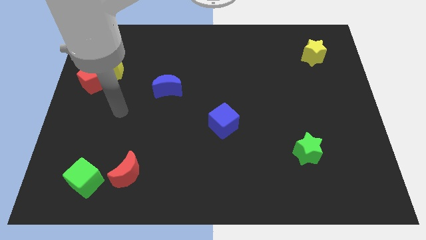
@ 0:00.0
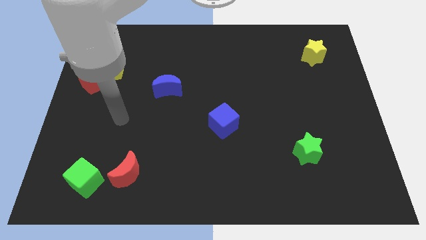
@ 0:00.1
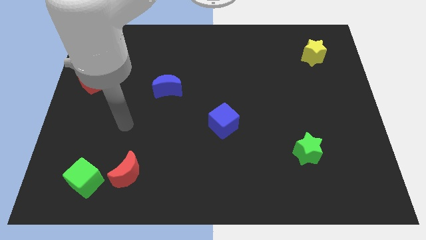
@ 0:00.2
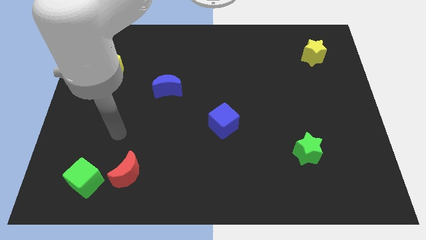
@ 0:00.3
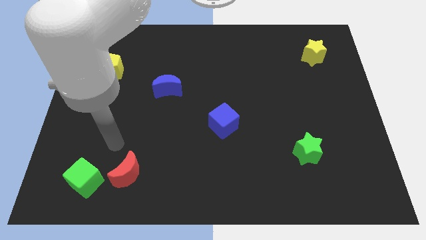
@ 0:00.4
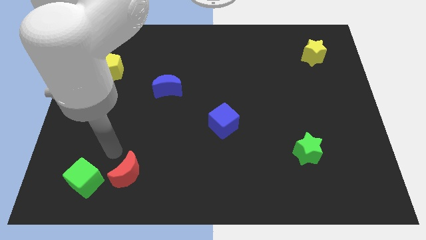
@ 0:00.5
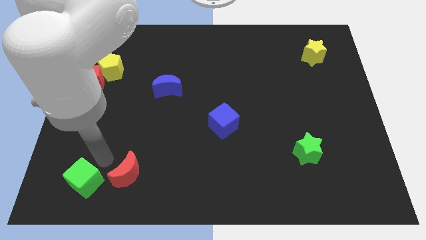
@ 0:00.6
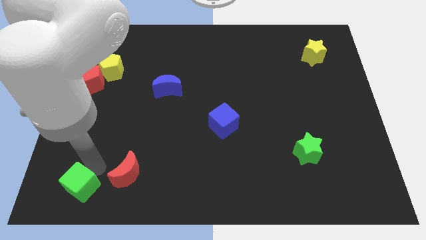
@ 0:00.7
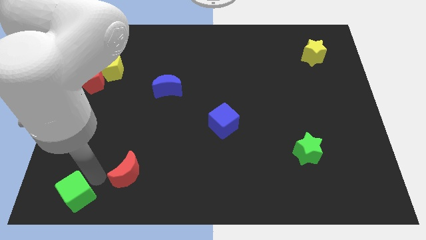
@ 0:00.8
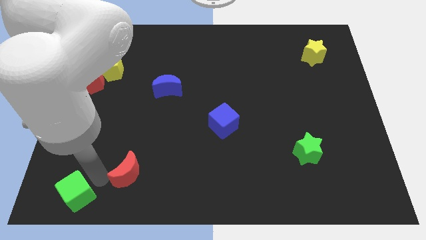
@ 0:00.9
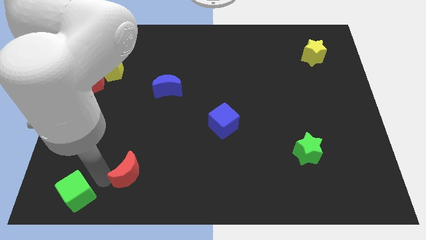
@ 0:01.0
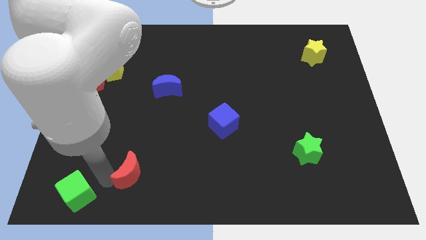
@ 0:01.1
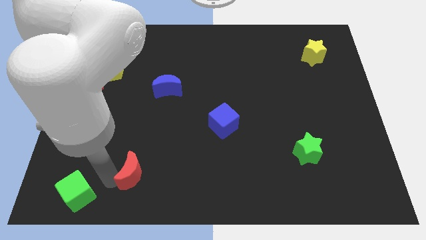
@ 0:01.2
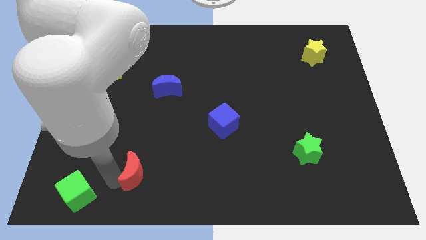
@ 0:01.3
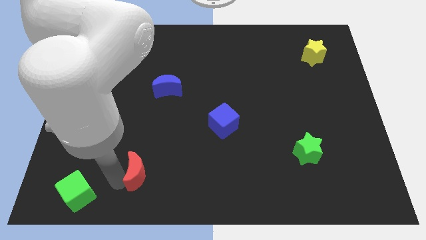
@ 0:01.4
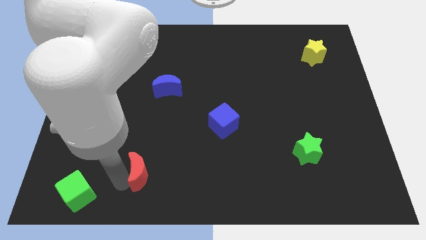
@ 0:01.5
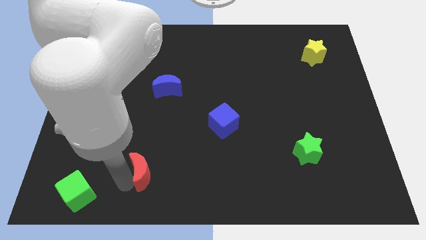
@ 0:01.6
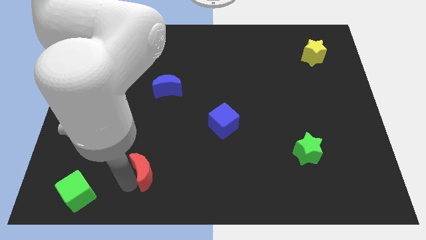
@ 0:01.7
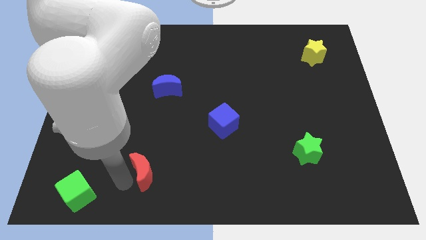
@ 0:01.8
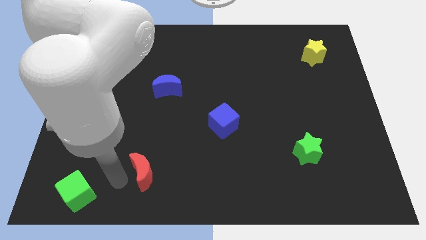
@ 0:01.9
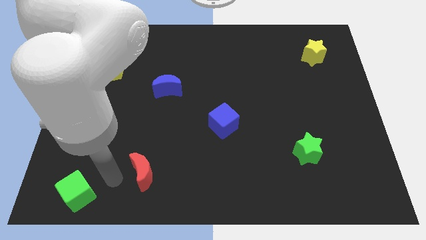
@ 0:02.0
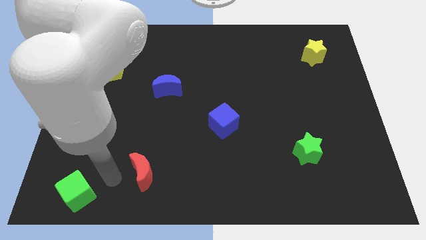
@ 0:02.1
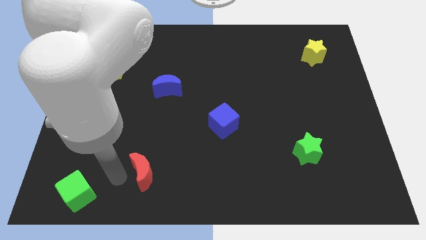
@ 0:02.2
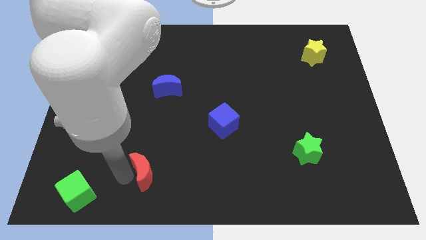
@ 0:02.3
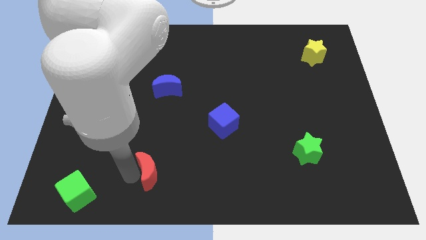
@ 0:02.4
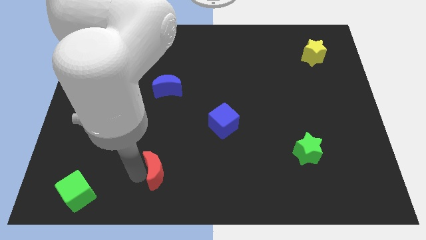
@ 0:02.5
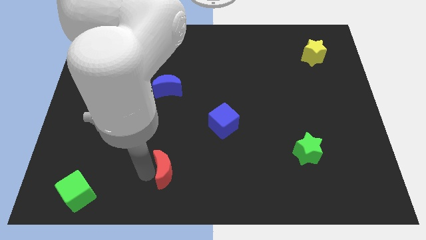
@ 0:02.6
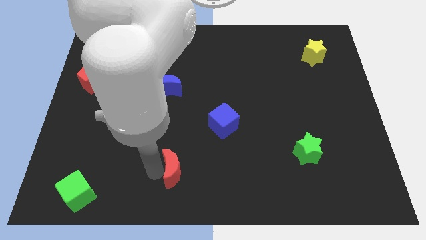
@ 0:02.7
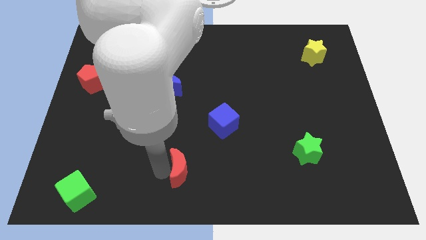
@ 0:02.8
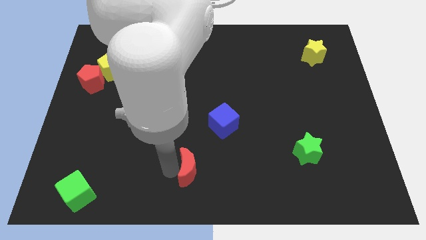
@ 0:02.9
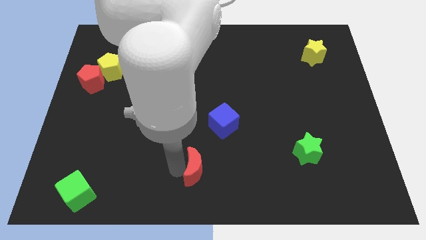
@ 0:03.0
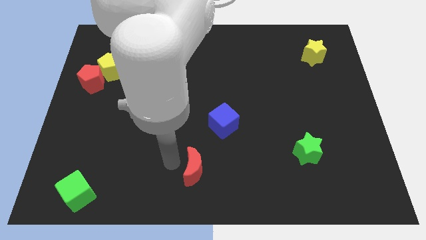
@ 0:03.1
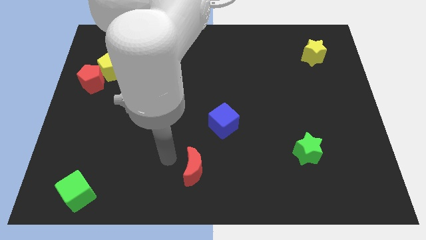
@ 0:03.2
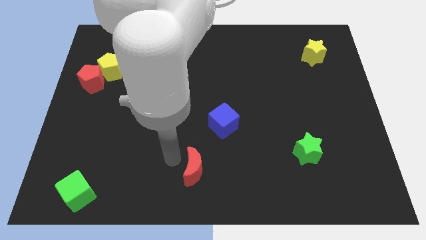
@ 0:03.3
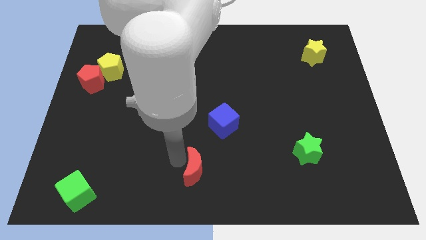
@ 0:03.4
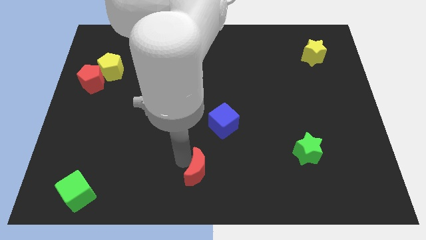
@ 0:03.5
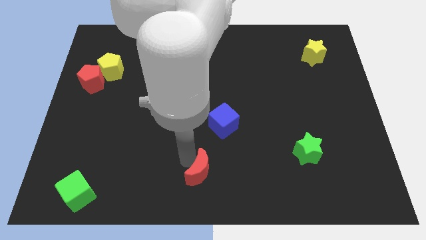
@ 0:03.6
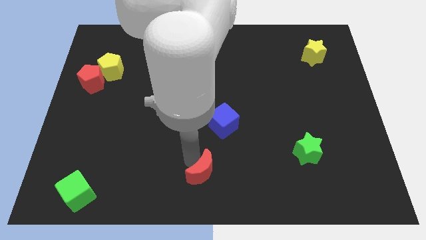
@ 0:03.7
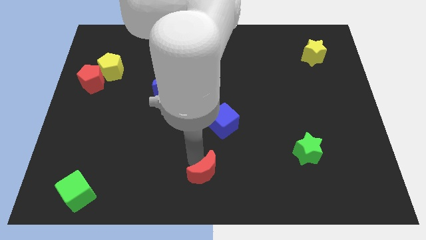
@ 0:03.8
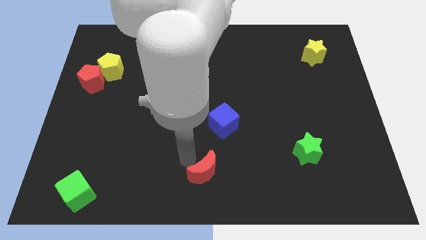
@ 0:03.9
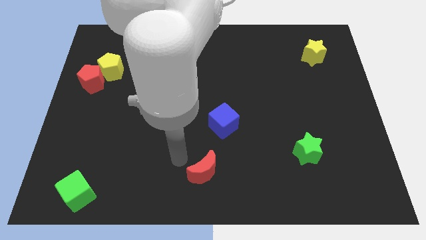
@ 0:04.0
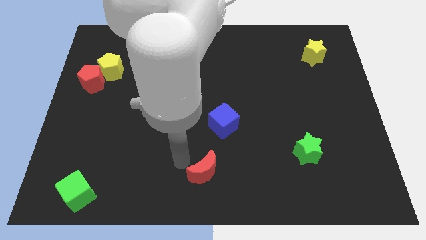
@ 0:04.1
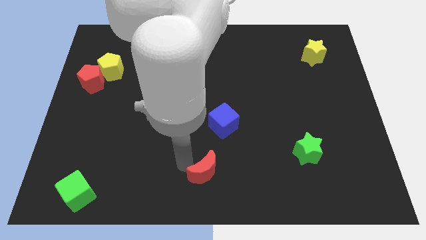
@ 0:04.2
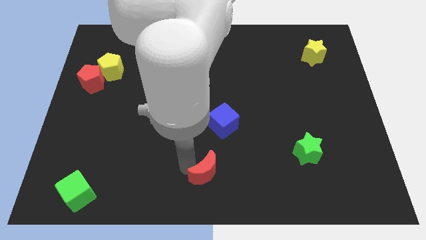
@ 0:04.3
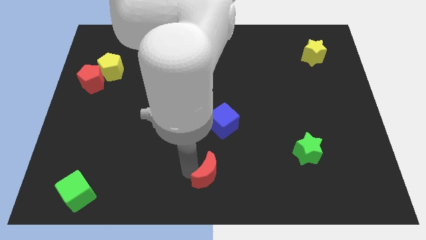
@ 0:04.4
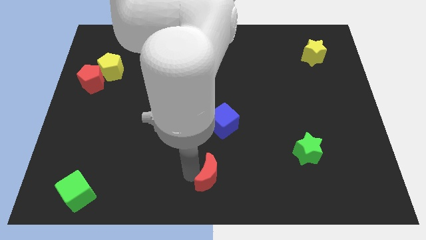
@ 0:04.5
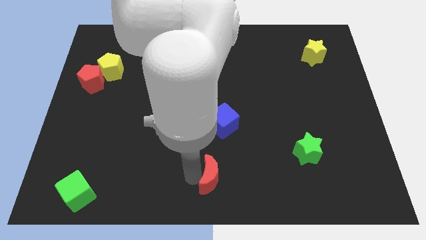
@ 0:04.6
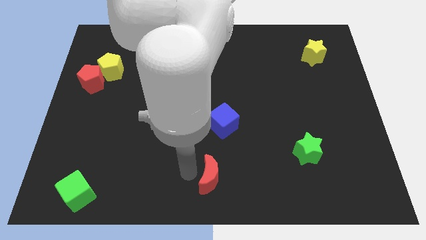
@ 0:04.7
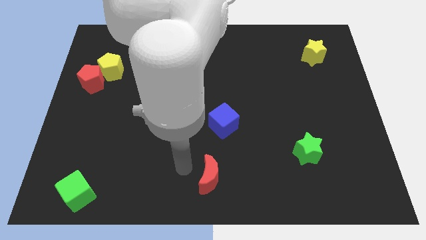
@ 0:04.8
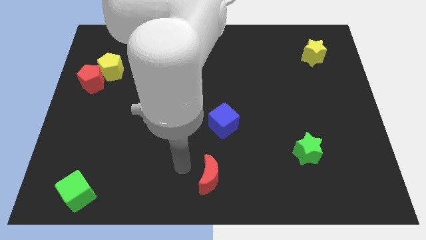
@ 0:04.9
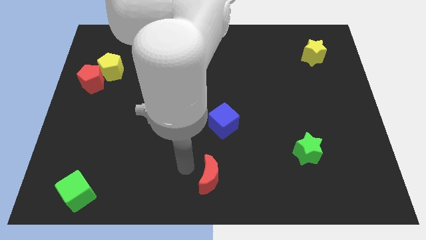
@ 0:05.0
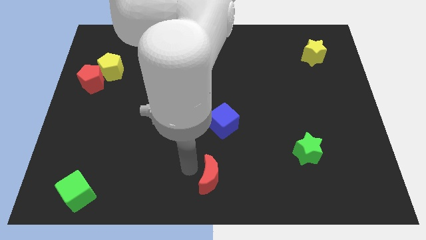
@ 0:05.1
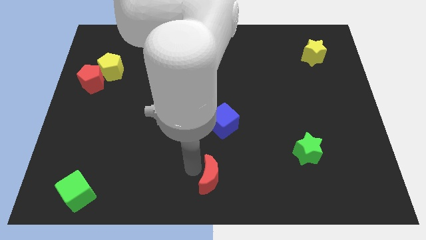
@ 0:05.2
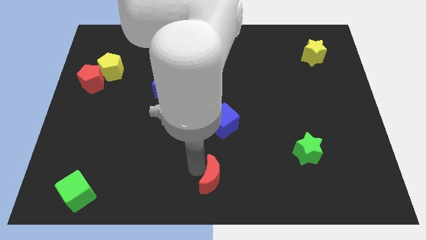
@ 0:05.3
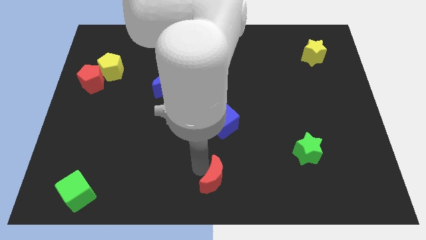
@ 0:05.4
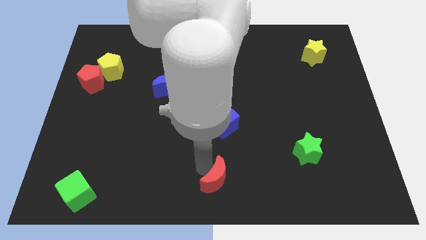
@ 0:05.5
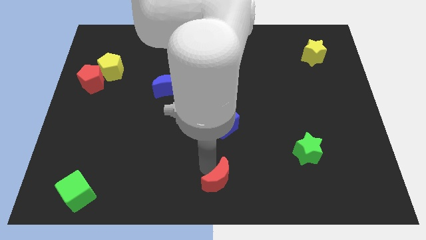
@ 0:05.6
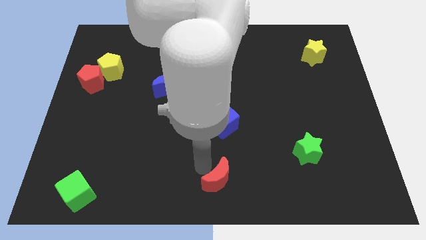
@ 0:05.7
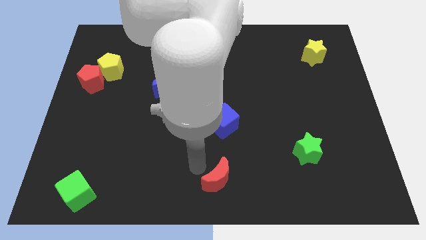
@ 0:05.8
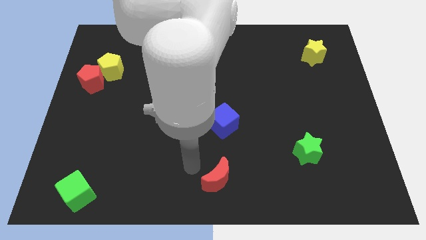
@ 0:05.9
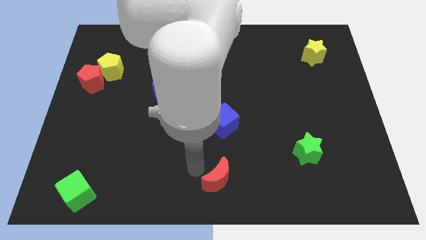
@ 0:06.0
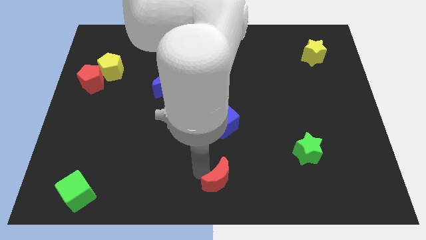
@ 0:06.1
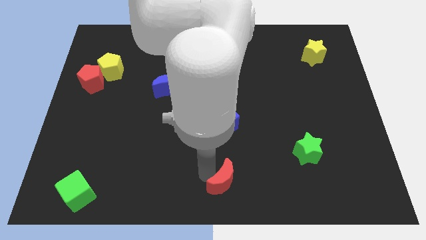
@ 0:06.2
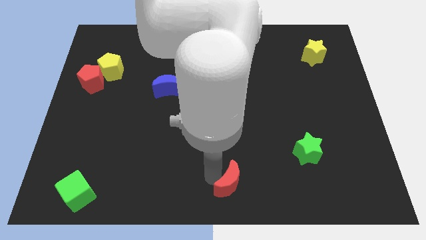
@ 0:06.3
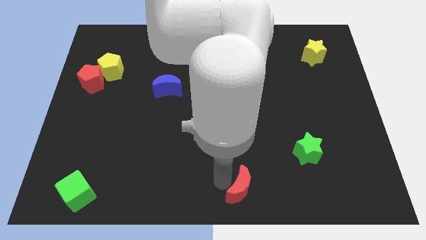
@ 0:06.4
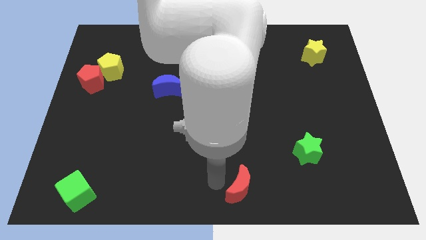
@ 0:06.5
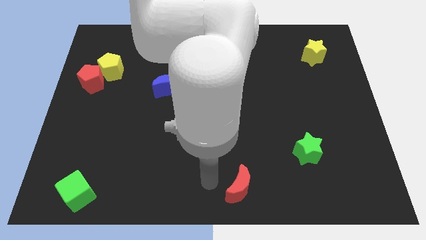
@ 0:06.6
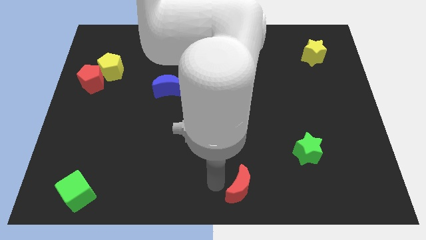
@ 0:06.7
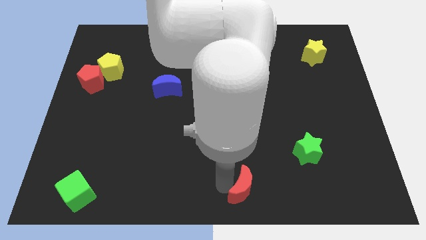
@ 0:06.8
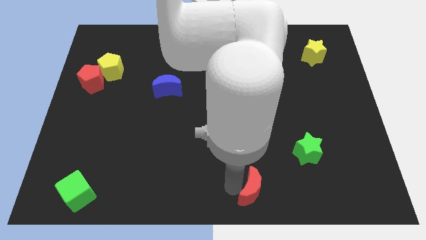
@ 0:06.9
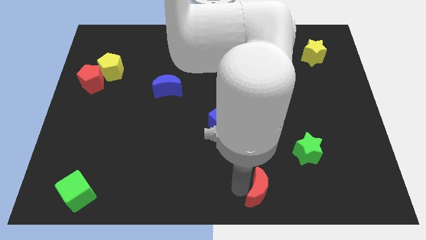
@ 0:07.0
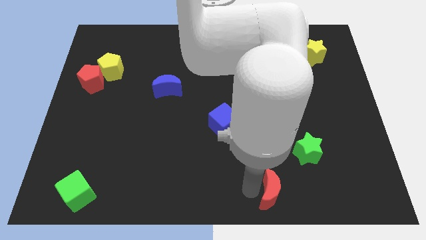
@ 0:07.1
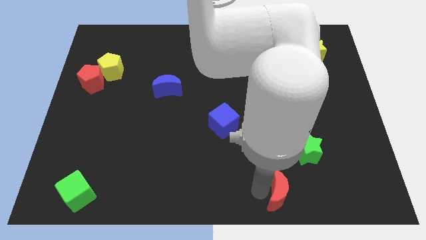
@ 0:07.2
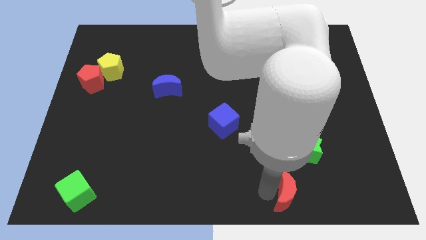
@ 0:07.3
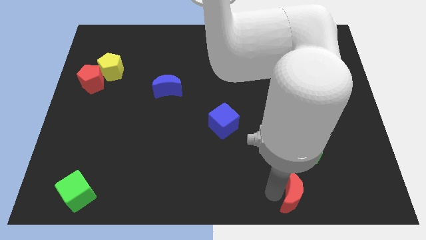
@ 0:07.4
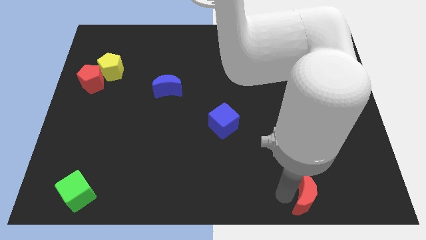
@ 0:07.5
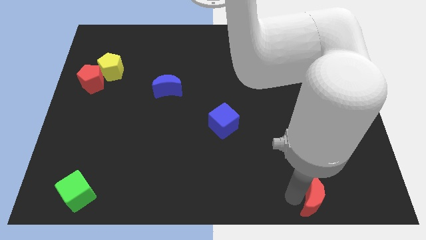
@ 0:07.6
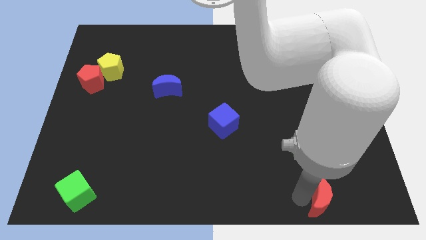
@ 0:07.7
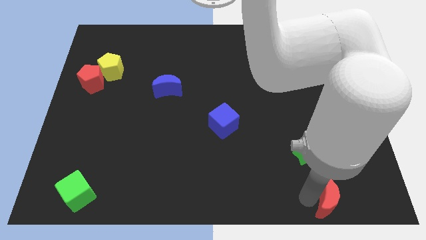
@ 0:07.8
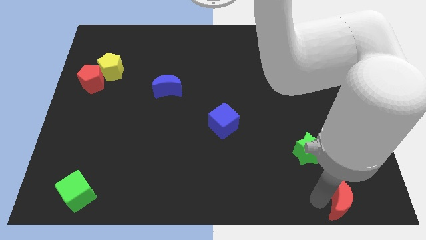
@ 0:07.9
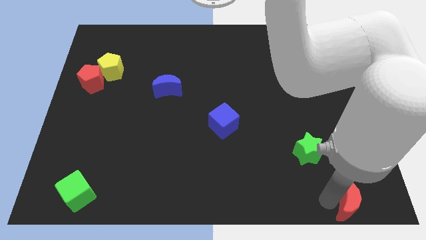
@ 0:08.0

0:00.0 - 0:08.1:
move the red moon to the bottom right of the board
